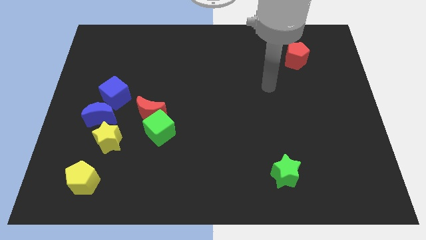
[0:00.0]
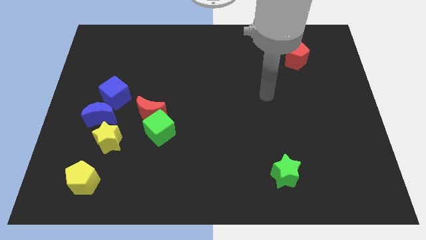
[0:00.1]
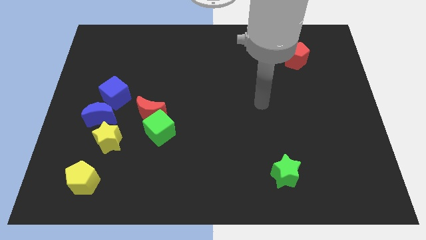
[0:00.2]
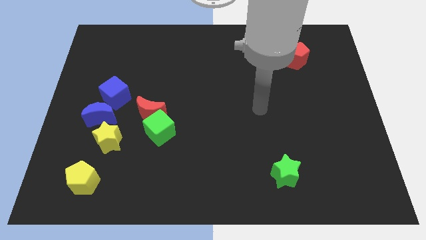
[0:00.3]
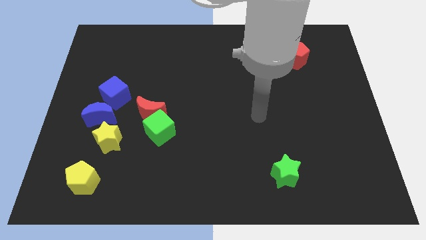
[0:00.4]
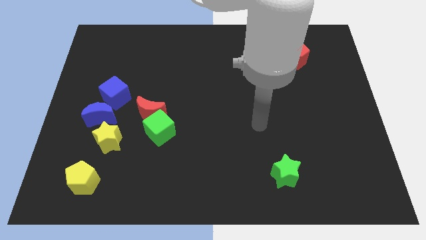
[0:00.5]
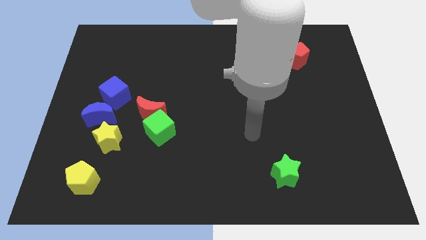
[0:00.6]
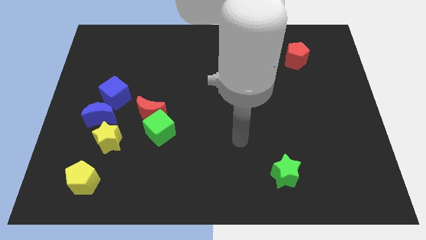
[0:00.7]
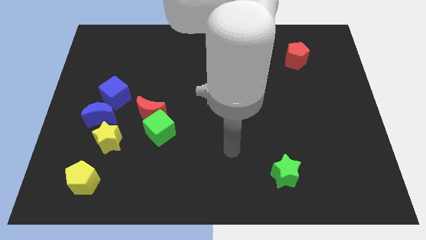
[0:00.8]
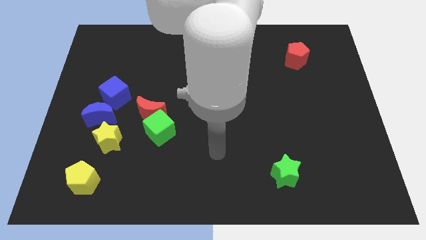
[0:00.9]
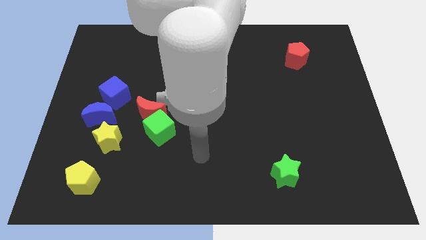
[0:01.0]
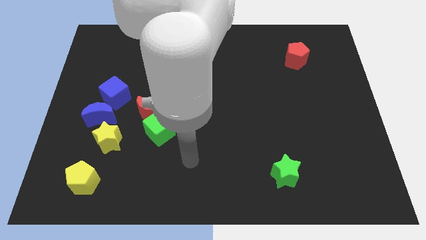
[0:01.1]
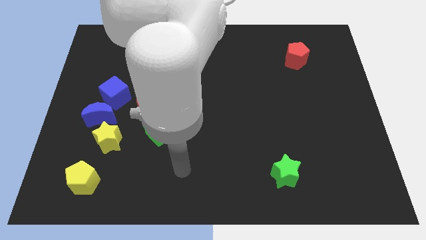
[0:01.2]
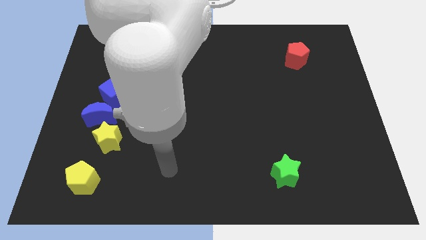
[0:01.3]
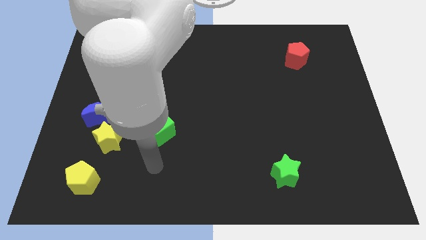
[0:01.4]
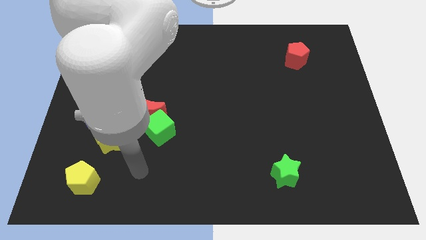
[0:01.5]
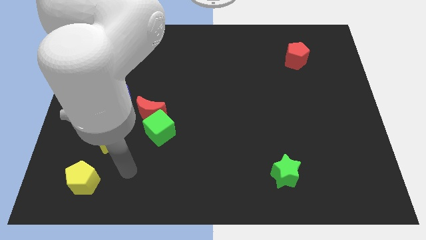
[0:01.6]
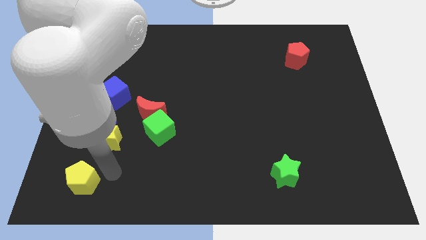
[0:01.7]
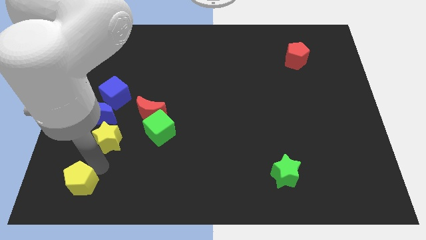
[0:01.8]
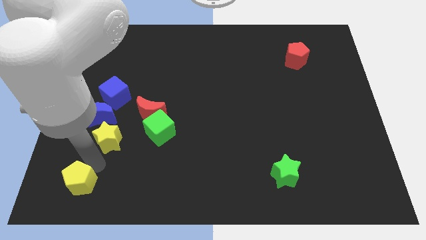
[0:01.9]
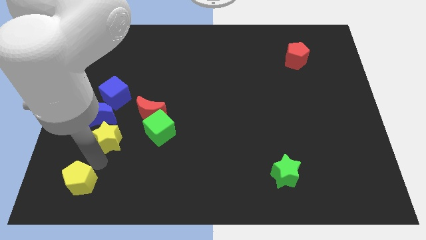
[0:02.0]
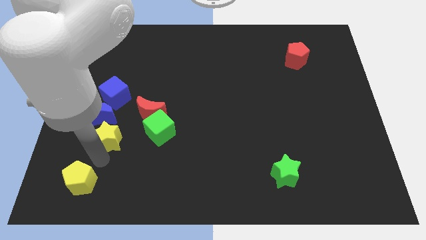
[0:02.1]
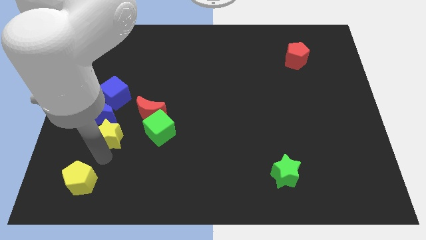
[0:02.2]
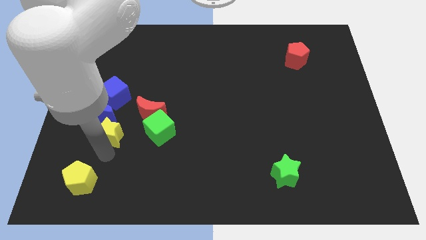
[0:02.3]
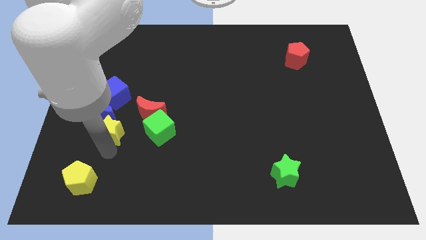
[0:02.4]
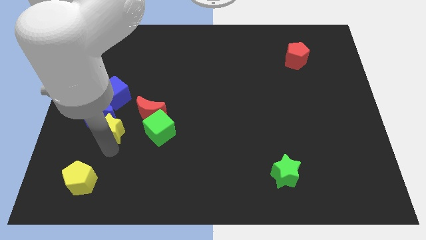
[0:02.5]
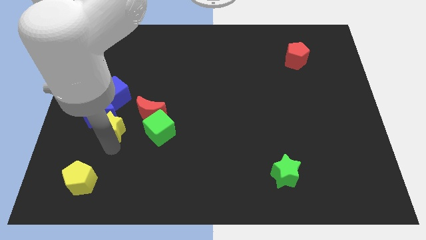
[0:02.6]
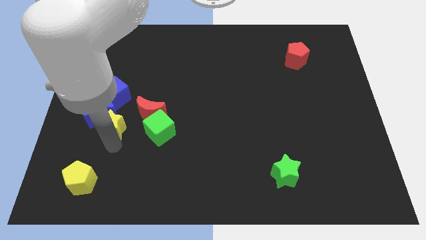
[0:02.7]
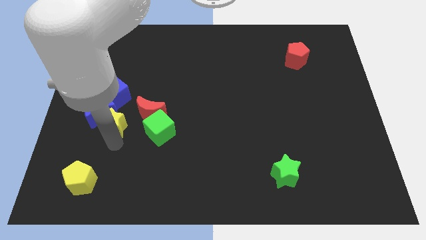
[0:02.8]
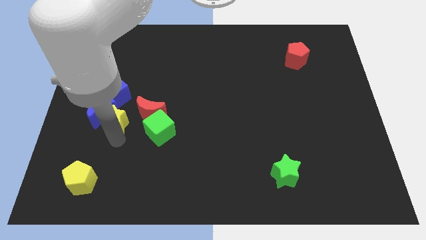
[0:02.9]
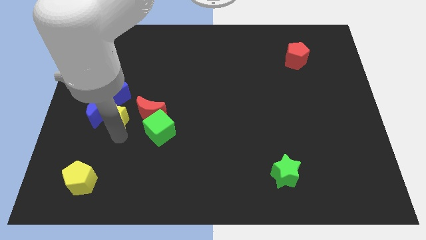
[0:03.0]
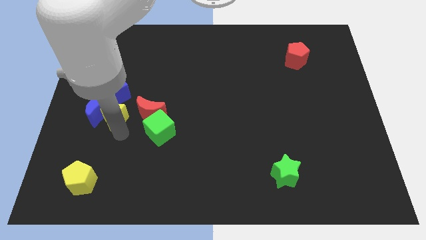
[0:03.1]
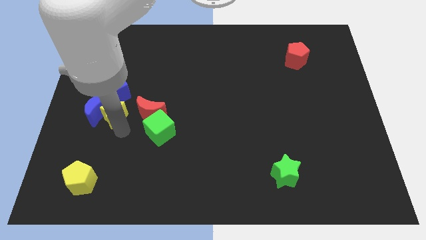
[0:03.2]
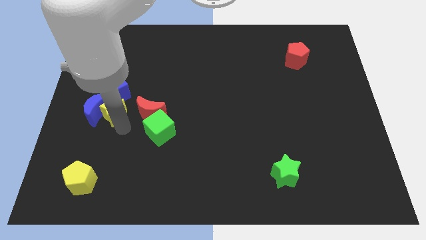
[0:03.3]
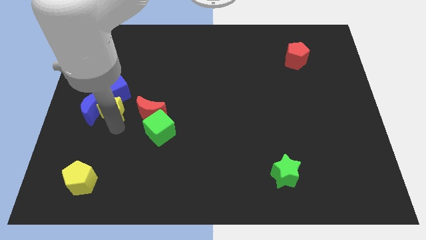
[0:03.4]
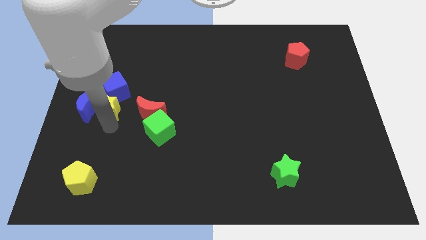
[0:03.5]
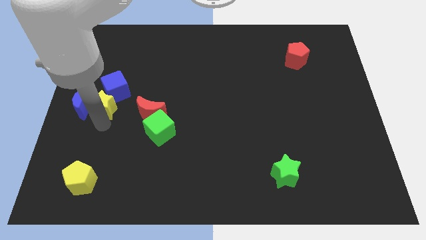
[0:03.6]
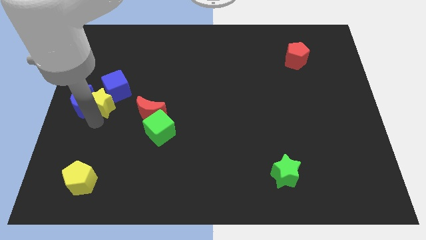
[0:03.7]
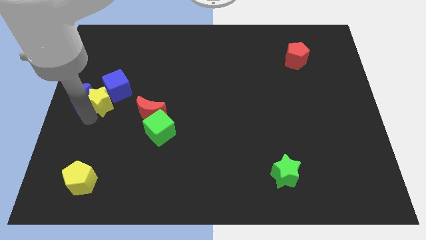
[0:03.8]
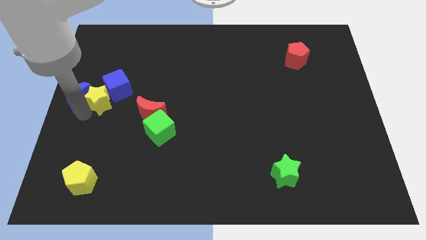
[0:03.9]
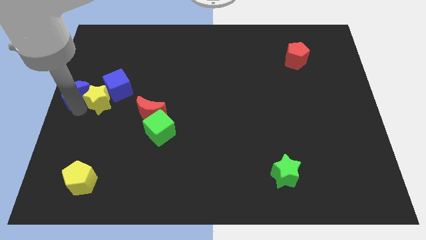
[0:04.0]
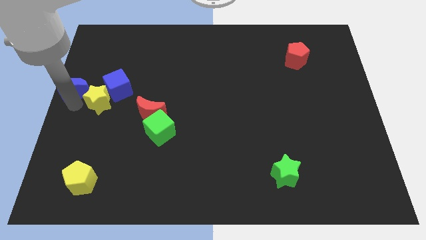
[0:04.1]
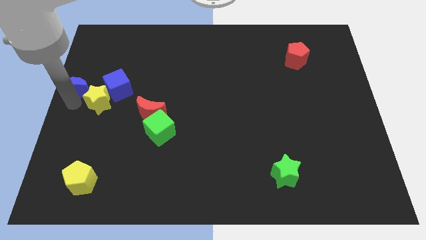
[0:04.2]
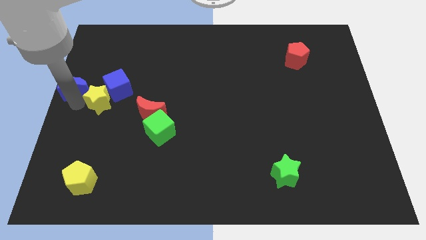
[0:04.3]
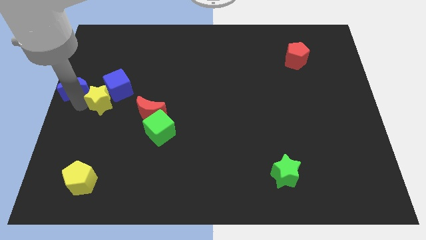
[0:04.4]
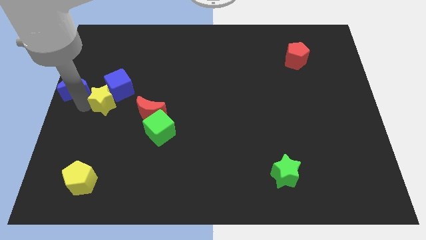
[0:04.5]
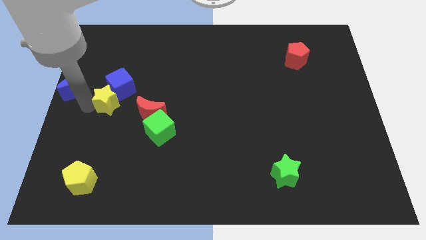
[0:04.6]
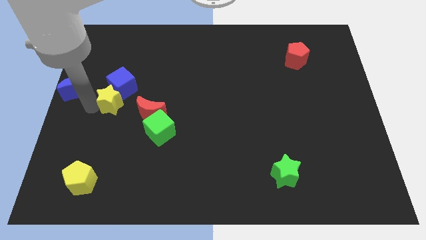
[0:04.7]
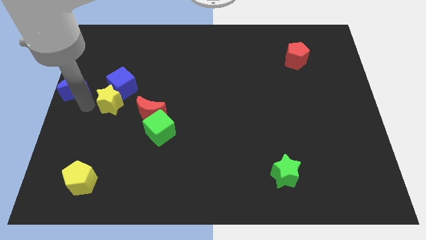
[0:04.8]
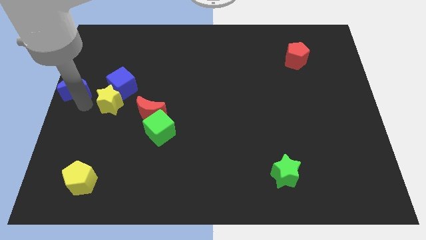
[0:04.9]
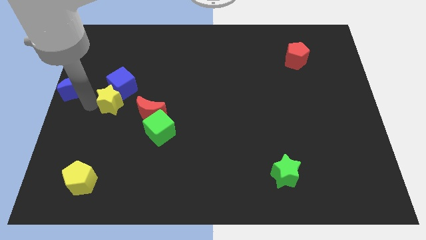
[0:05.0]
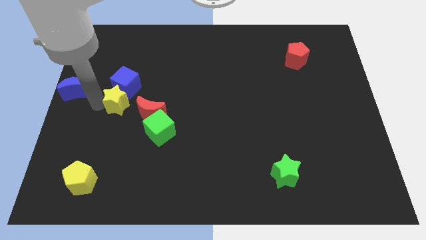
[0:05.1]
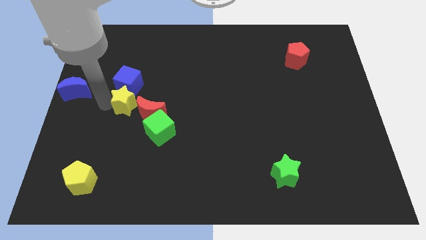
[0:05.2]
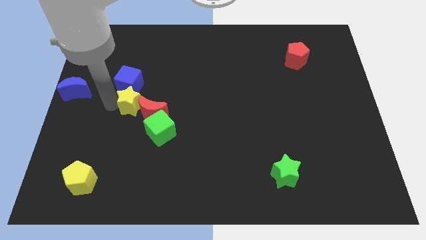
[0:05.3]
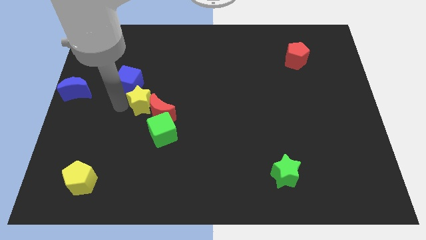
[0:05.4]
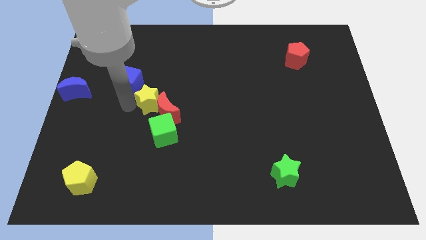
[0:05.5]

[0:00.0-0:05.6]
push the yellow star above the green cube
